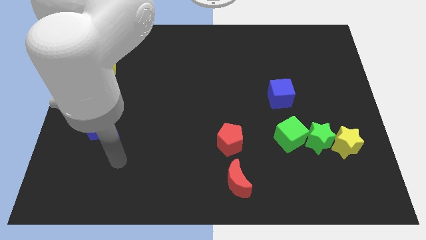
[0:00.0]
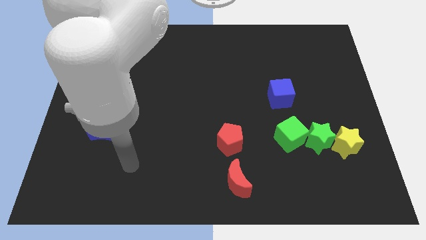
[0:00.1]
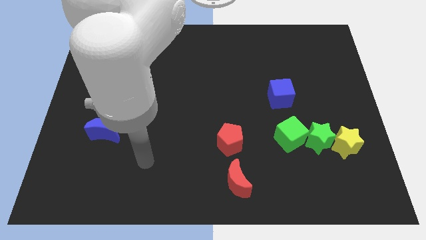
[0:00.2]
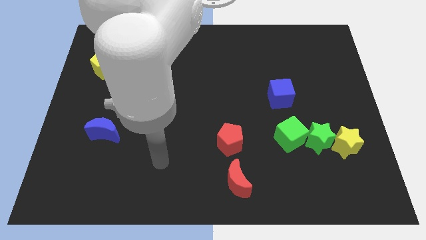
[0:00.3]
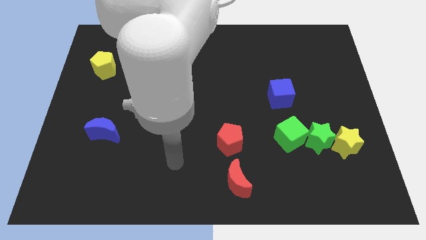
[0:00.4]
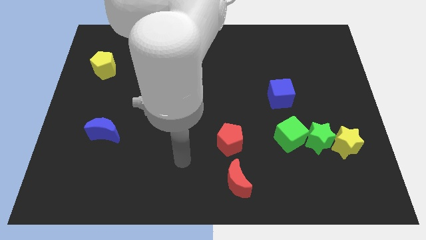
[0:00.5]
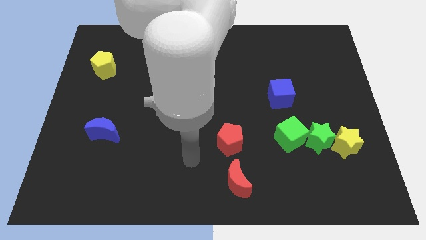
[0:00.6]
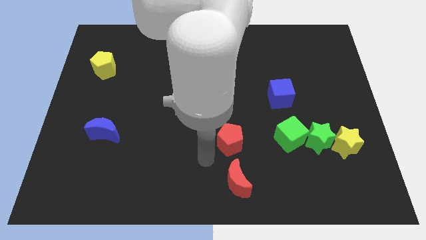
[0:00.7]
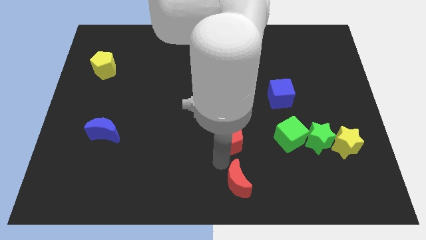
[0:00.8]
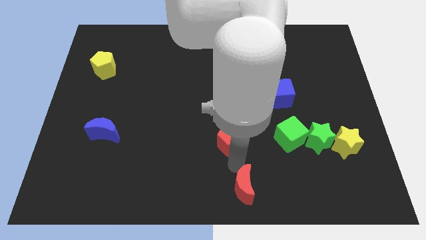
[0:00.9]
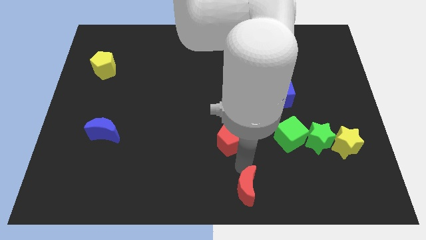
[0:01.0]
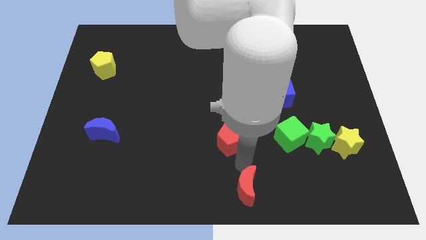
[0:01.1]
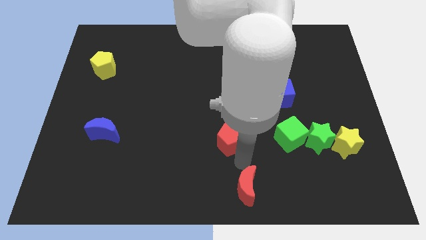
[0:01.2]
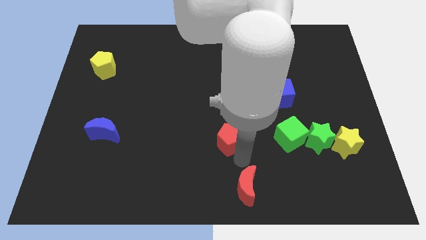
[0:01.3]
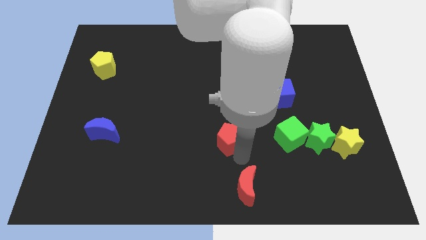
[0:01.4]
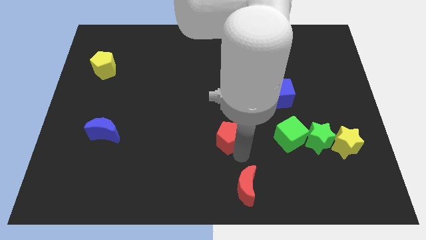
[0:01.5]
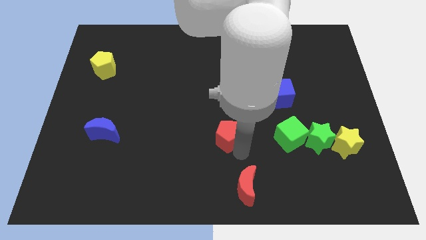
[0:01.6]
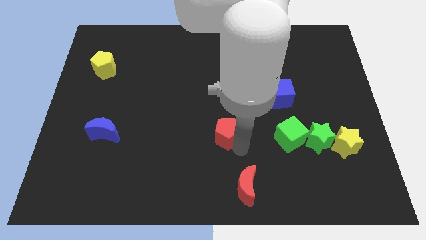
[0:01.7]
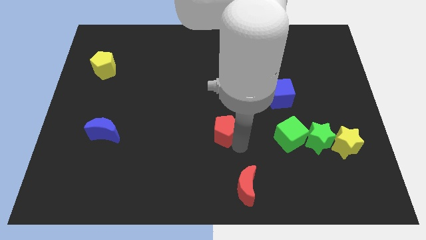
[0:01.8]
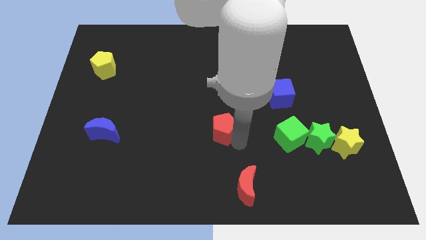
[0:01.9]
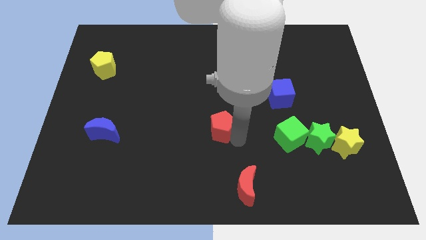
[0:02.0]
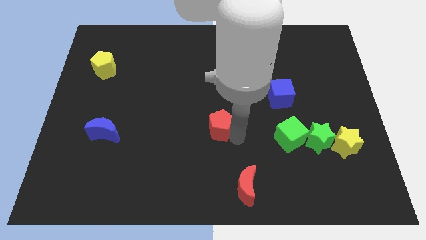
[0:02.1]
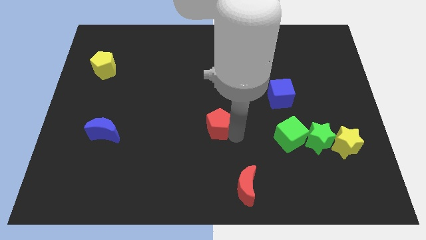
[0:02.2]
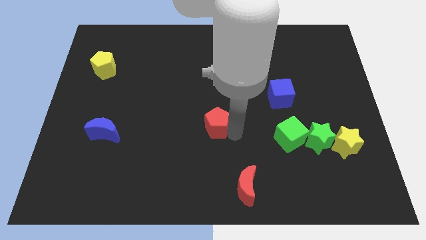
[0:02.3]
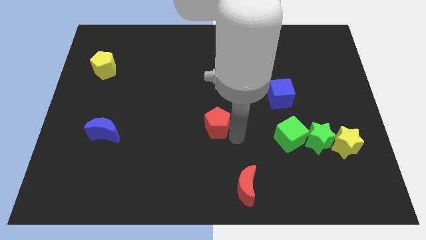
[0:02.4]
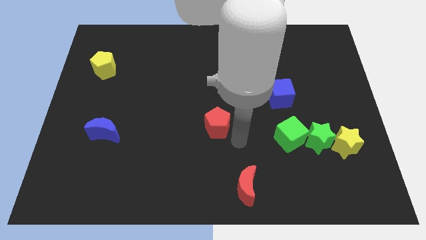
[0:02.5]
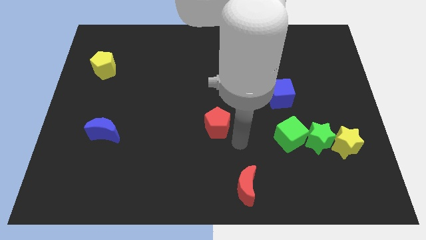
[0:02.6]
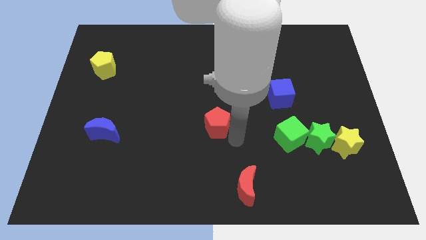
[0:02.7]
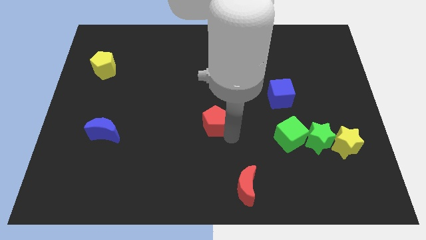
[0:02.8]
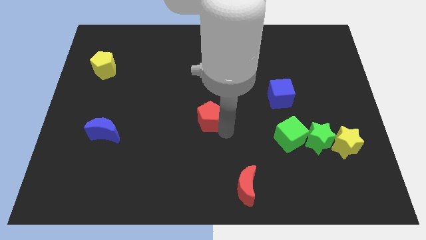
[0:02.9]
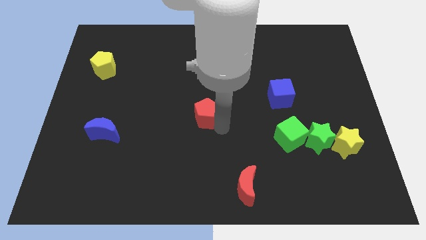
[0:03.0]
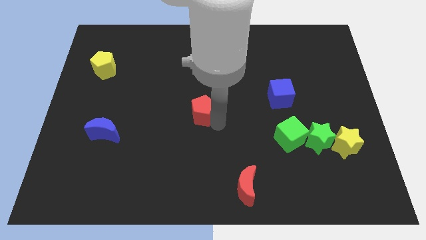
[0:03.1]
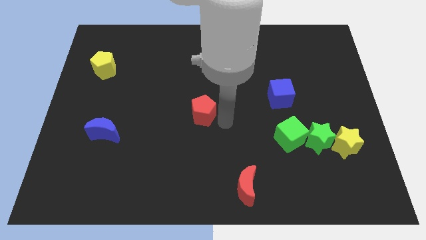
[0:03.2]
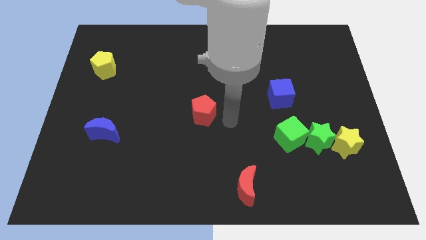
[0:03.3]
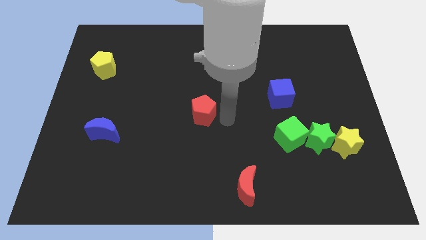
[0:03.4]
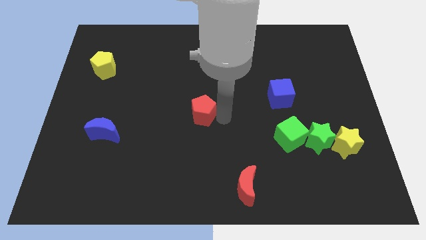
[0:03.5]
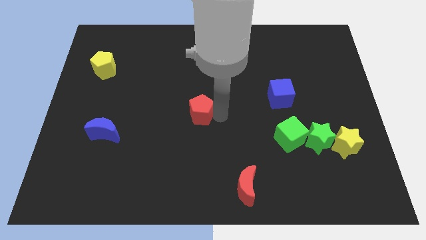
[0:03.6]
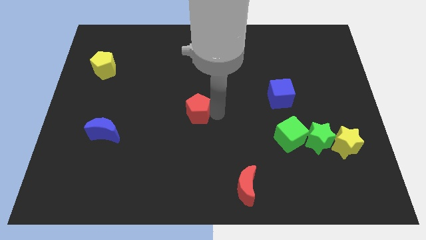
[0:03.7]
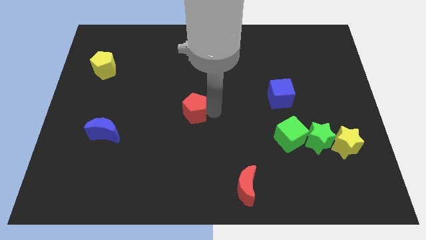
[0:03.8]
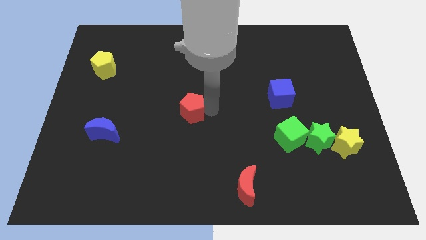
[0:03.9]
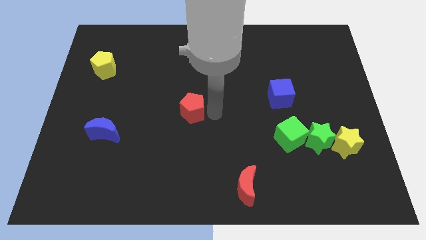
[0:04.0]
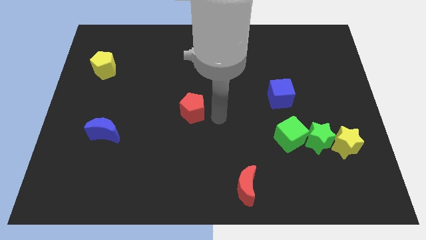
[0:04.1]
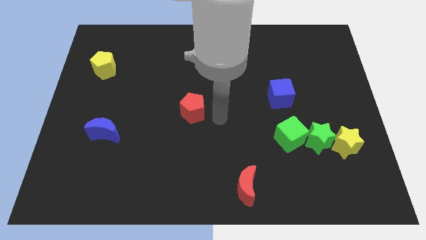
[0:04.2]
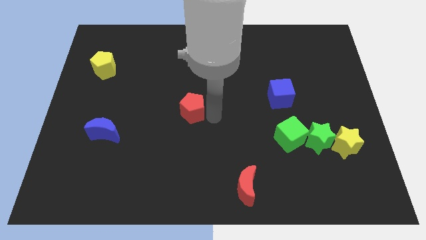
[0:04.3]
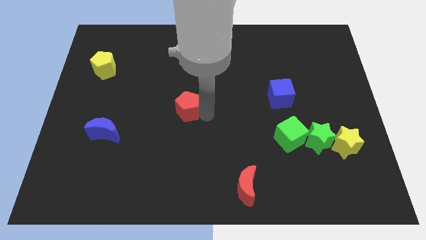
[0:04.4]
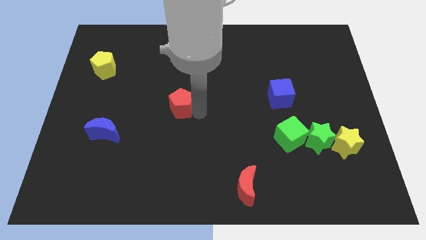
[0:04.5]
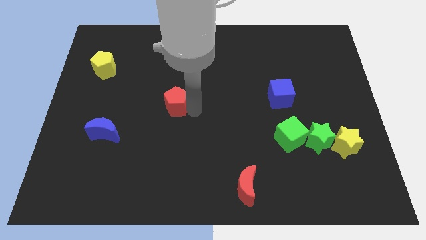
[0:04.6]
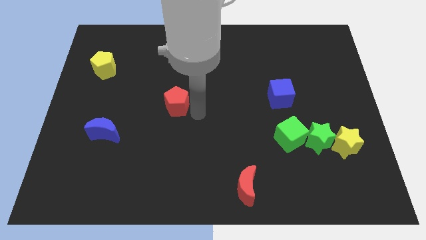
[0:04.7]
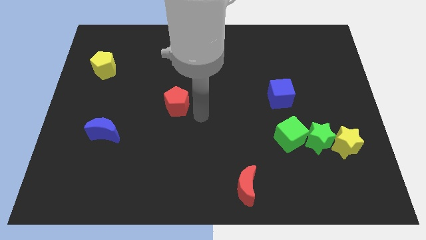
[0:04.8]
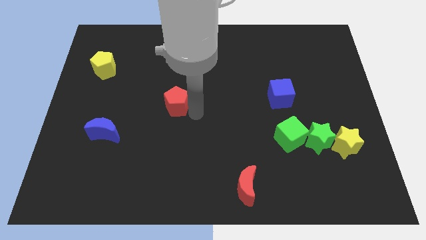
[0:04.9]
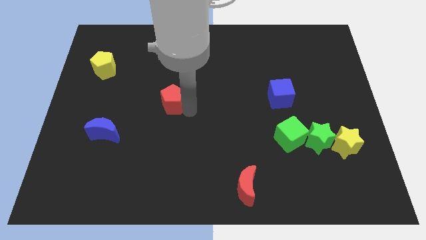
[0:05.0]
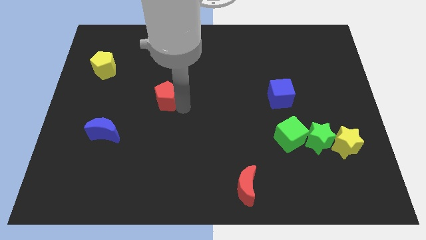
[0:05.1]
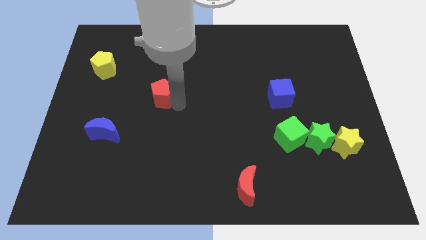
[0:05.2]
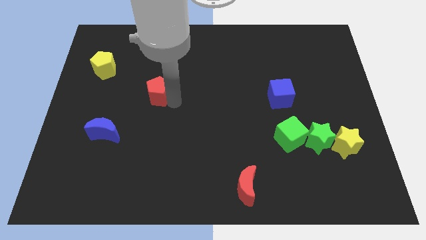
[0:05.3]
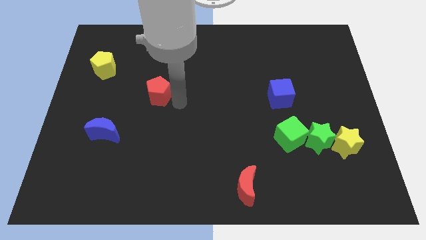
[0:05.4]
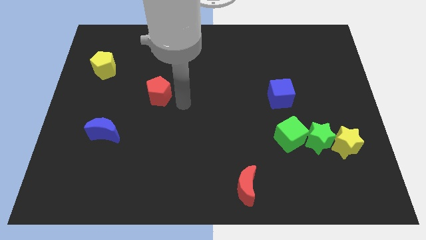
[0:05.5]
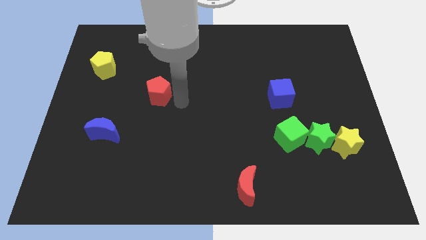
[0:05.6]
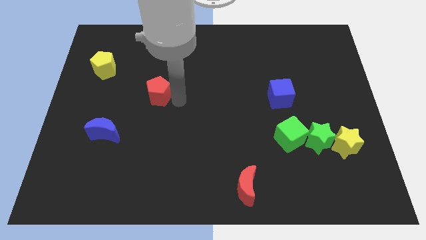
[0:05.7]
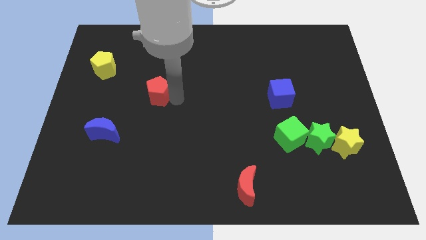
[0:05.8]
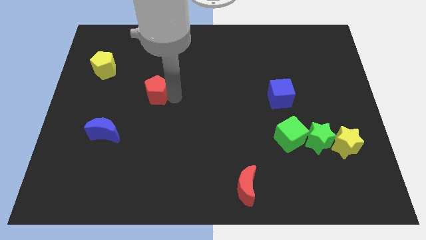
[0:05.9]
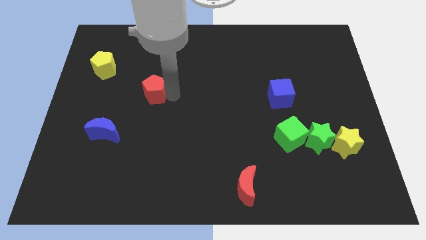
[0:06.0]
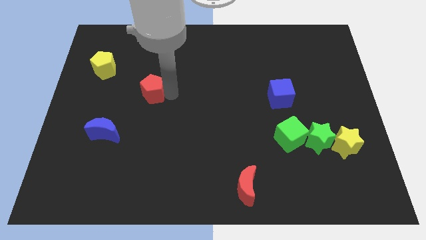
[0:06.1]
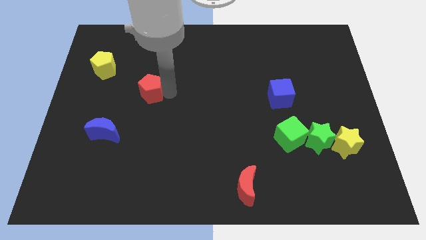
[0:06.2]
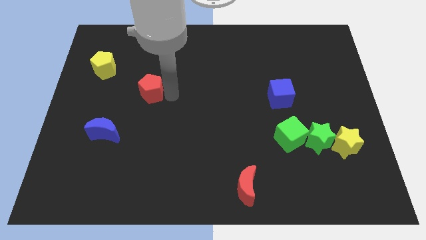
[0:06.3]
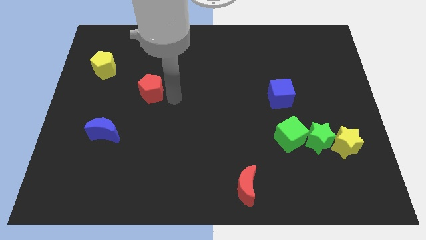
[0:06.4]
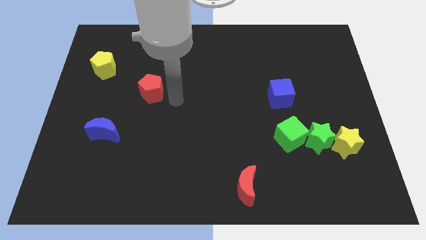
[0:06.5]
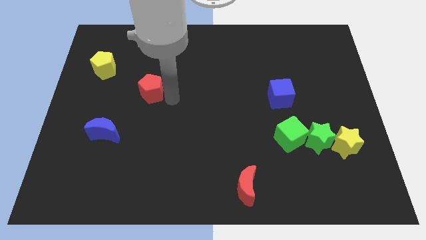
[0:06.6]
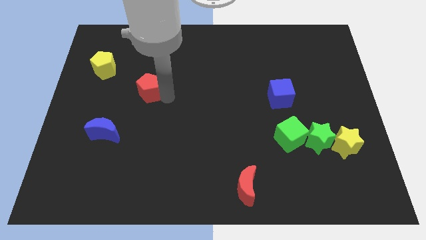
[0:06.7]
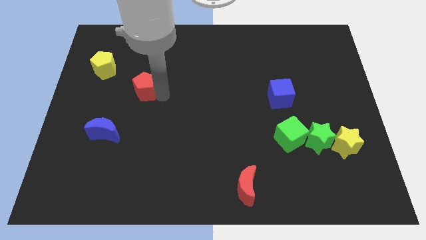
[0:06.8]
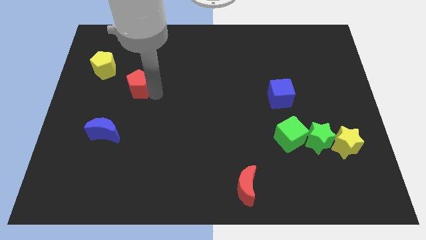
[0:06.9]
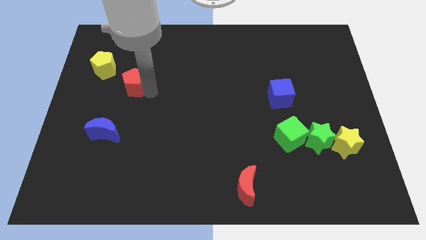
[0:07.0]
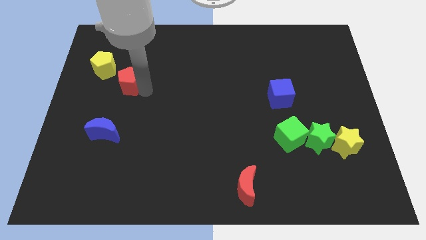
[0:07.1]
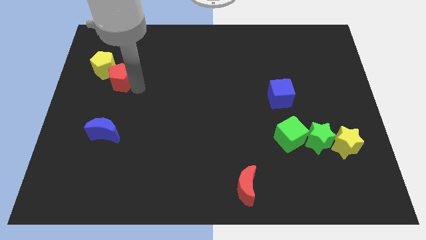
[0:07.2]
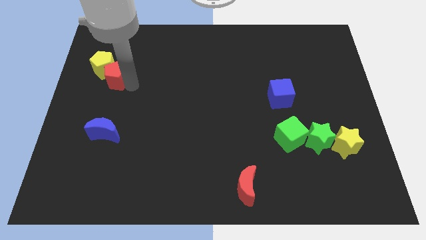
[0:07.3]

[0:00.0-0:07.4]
move the red pentagon next to the yellow pentagon
